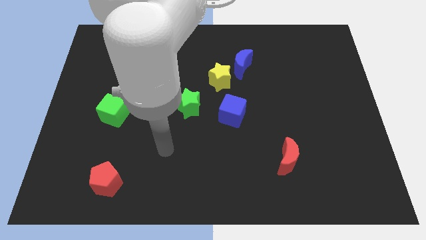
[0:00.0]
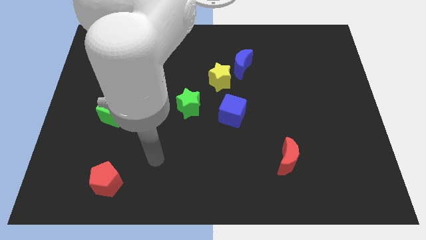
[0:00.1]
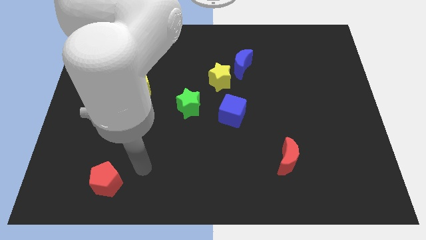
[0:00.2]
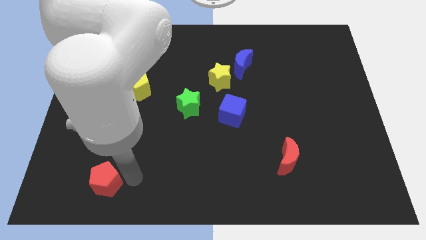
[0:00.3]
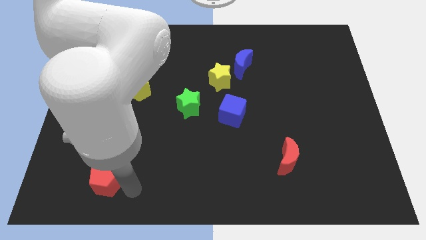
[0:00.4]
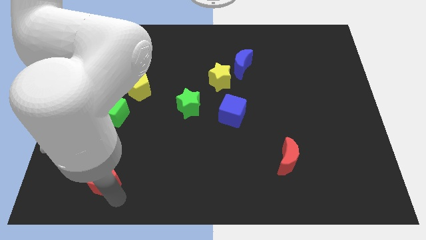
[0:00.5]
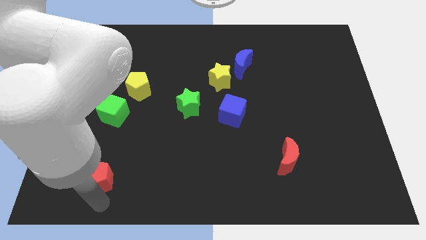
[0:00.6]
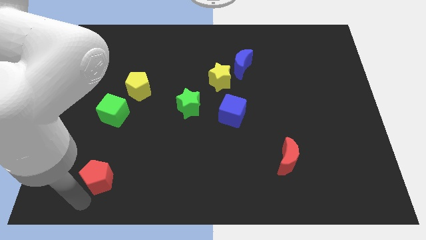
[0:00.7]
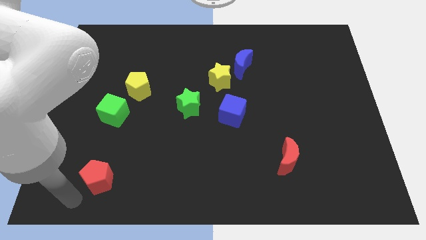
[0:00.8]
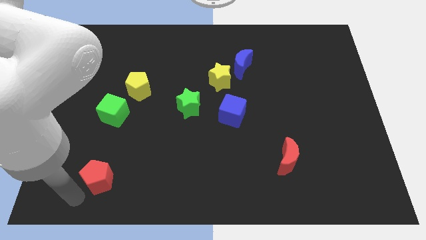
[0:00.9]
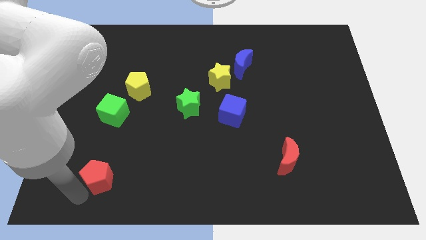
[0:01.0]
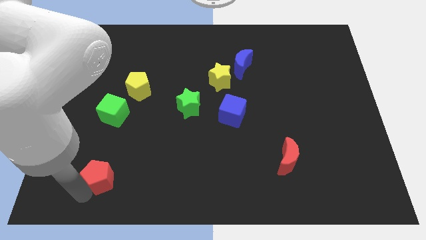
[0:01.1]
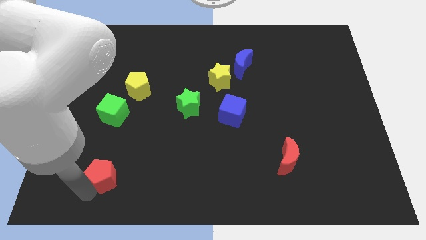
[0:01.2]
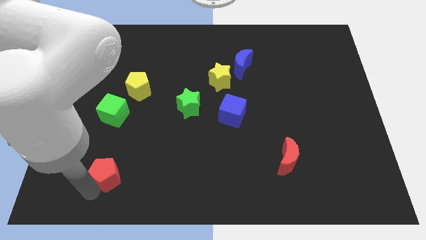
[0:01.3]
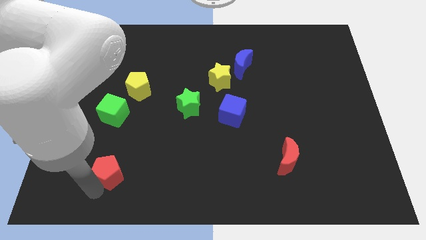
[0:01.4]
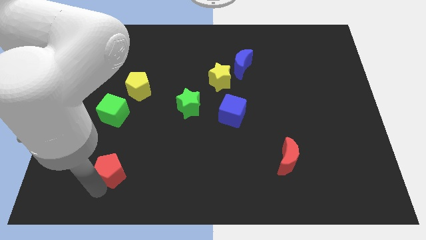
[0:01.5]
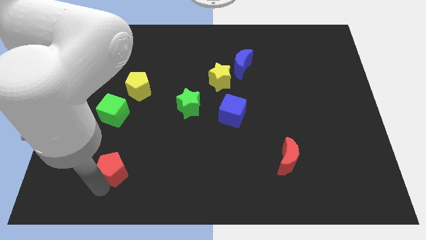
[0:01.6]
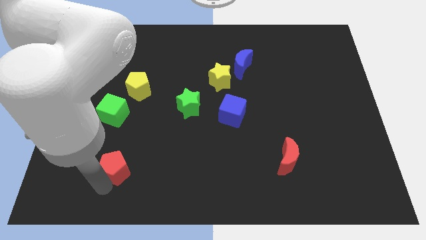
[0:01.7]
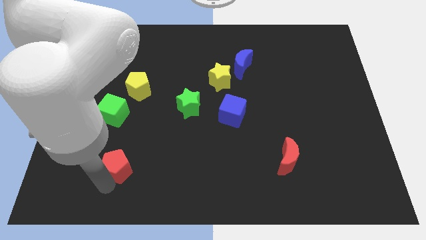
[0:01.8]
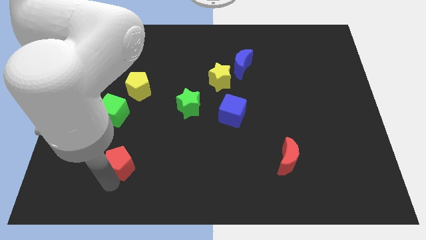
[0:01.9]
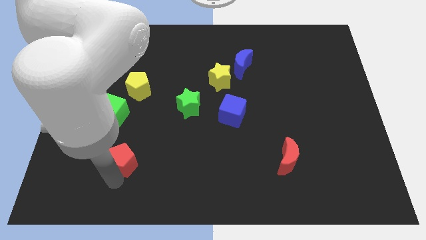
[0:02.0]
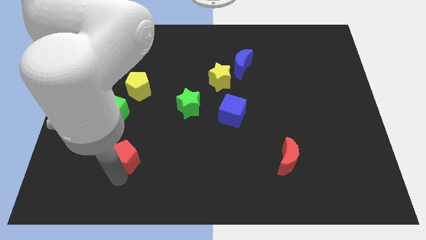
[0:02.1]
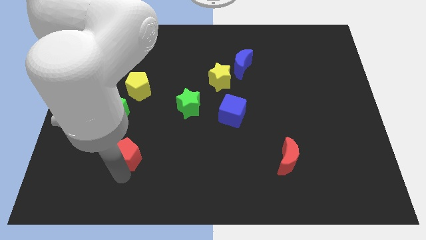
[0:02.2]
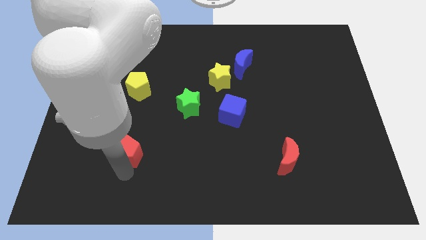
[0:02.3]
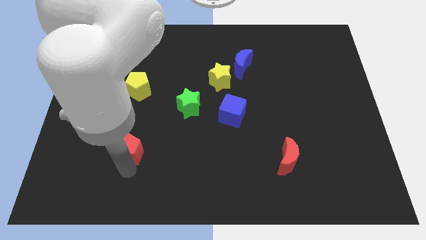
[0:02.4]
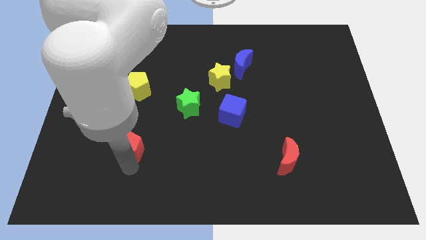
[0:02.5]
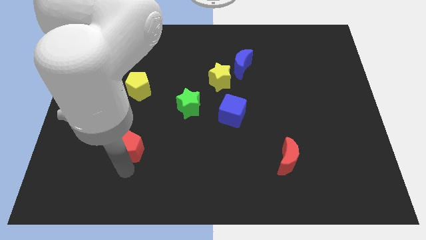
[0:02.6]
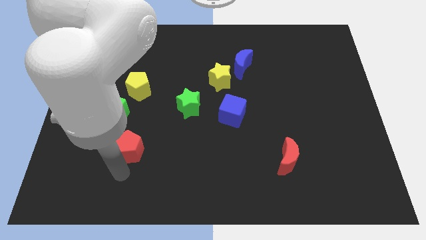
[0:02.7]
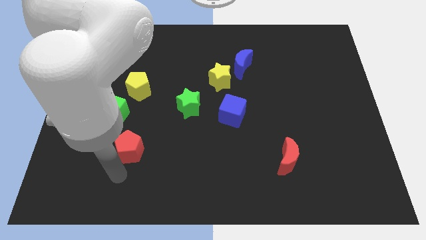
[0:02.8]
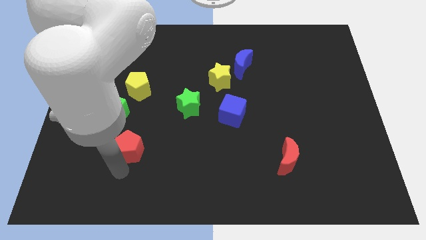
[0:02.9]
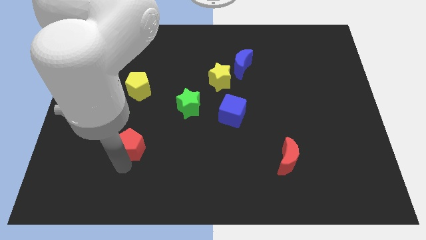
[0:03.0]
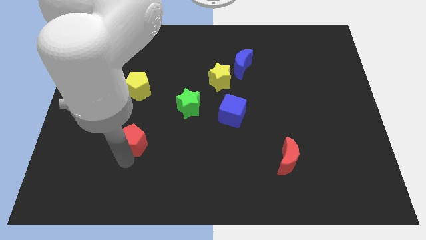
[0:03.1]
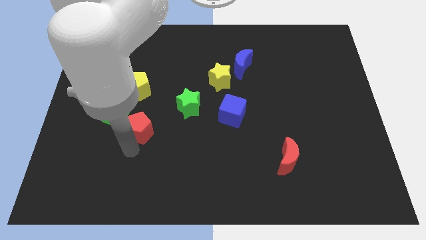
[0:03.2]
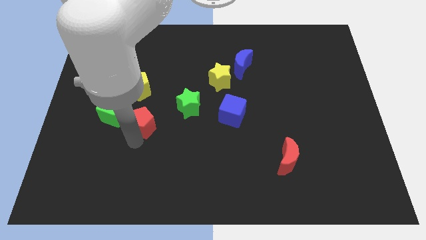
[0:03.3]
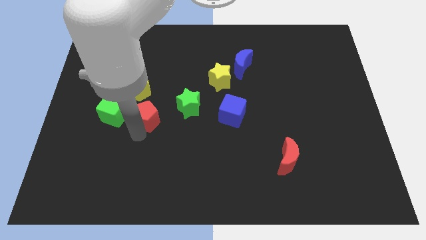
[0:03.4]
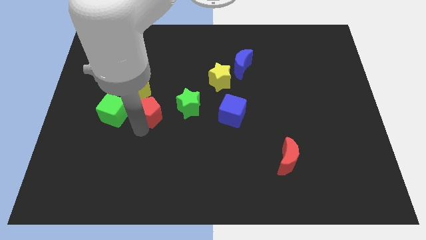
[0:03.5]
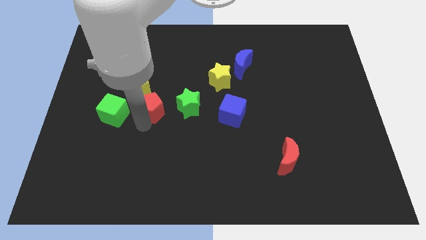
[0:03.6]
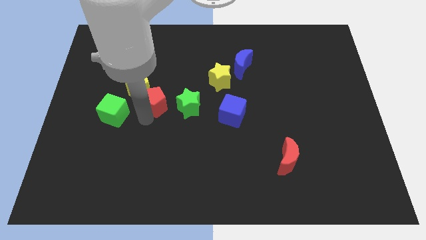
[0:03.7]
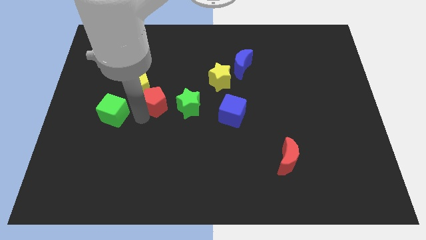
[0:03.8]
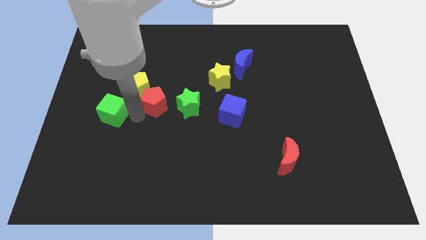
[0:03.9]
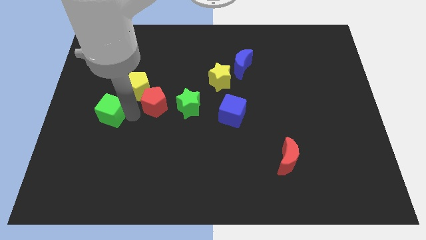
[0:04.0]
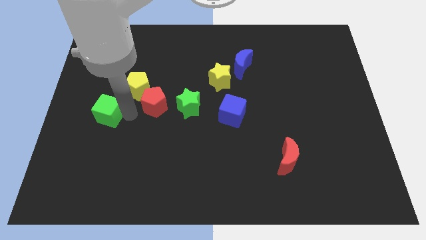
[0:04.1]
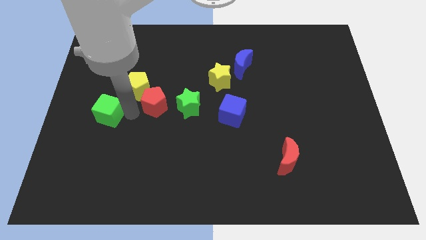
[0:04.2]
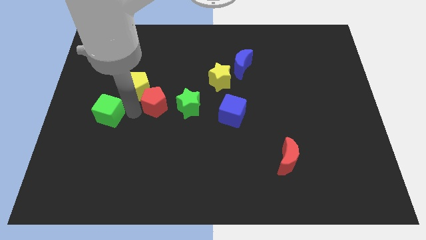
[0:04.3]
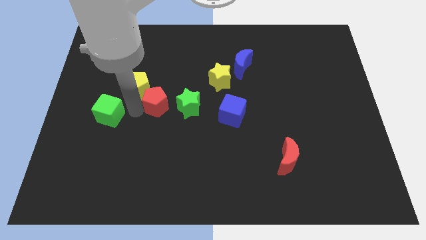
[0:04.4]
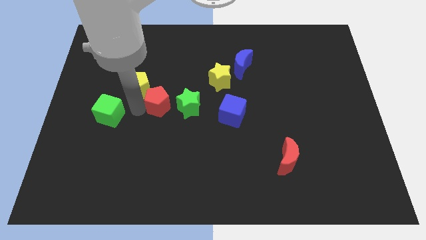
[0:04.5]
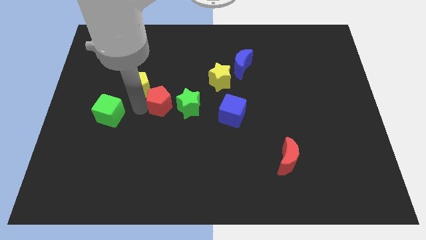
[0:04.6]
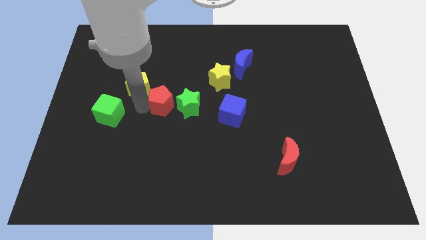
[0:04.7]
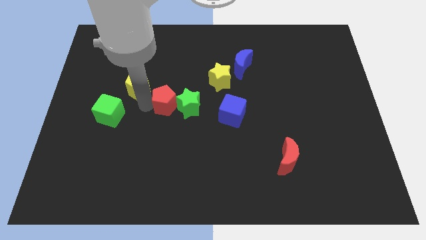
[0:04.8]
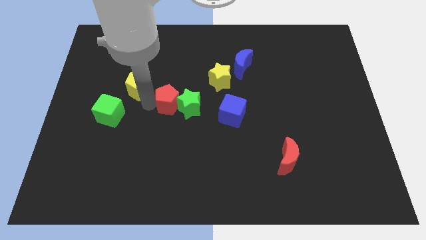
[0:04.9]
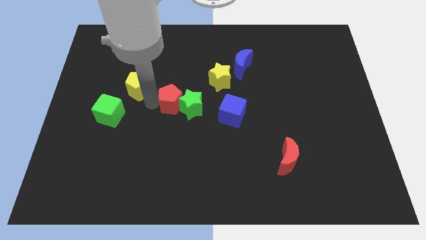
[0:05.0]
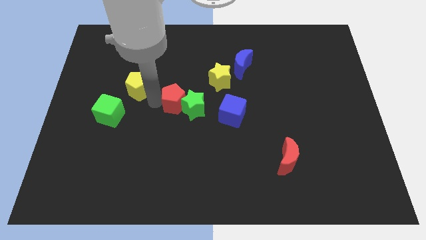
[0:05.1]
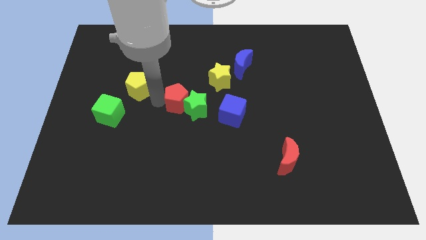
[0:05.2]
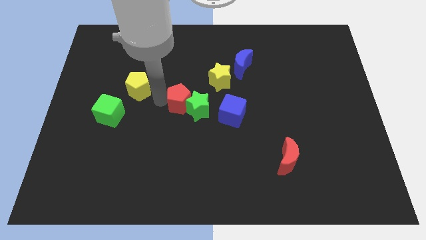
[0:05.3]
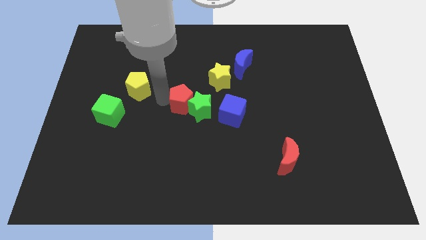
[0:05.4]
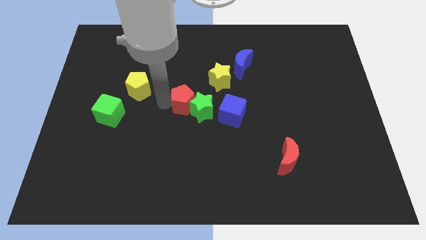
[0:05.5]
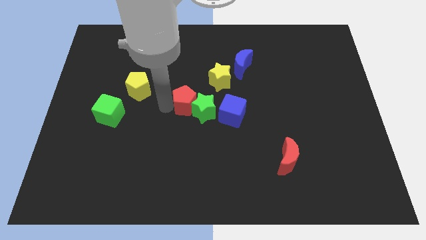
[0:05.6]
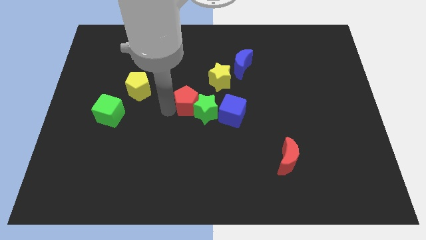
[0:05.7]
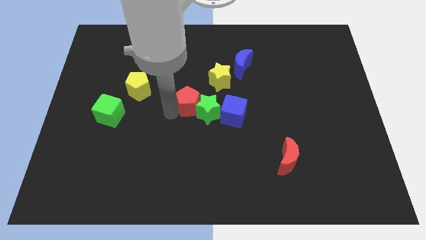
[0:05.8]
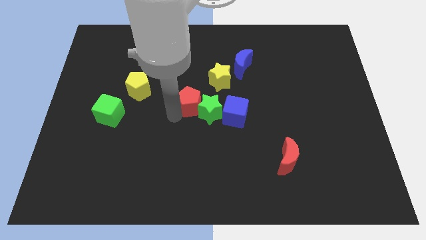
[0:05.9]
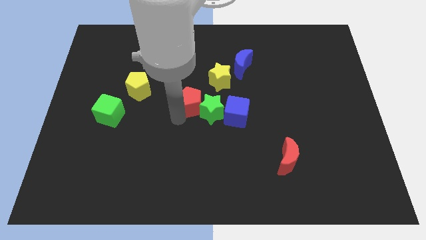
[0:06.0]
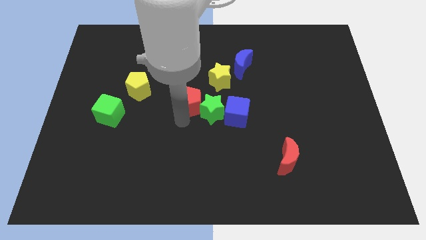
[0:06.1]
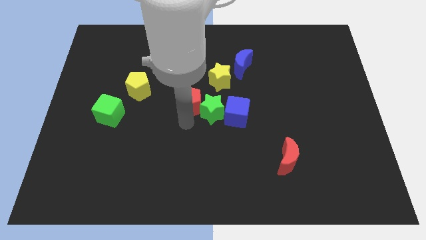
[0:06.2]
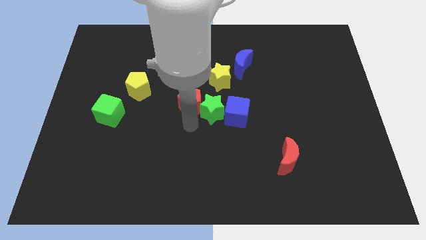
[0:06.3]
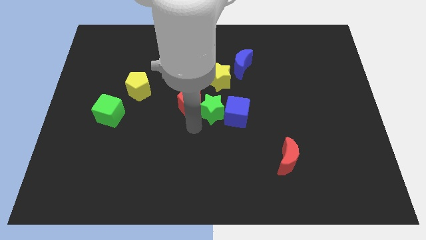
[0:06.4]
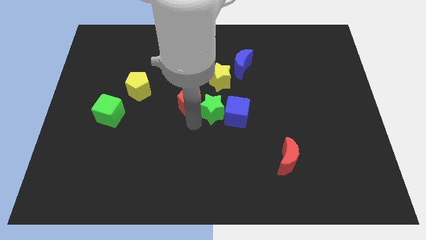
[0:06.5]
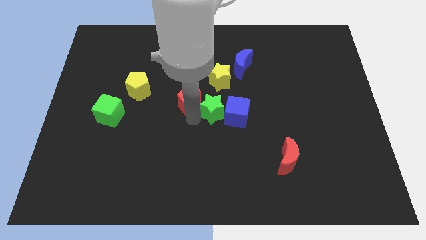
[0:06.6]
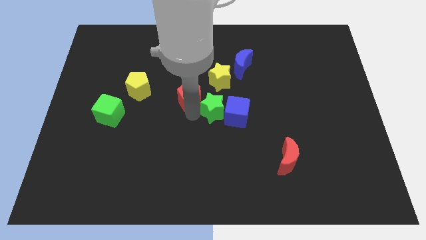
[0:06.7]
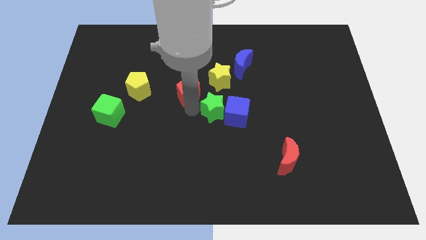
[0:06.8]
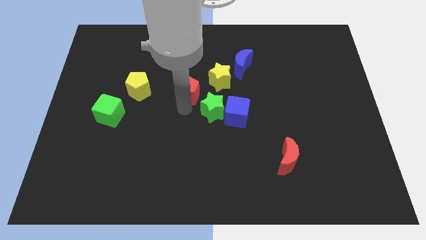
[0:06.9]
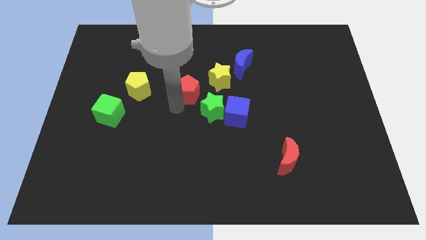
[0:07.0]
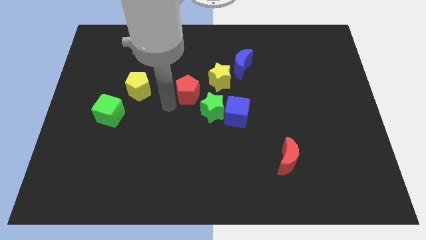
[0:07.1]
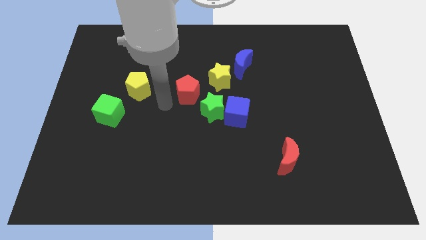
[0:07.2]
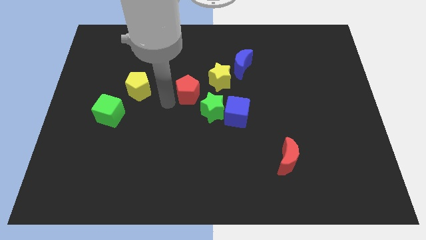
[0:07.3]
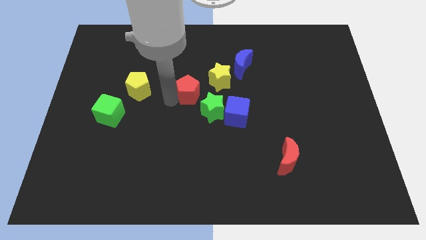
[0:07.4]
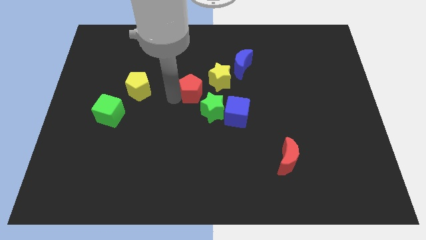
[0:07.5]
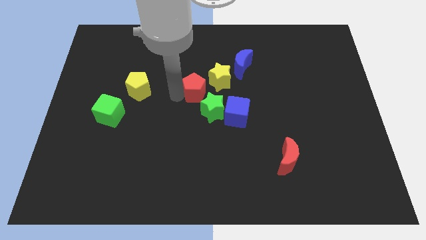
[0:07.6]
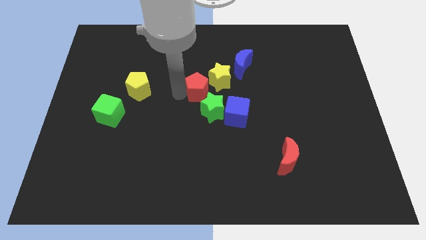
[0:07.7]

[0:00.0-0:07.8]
move the red pentagon close to the yellow star
